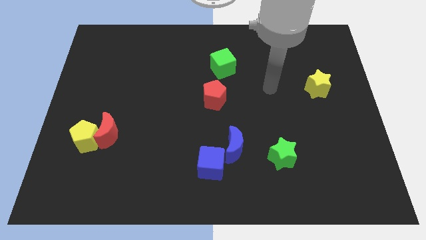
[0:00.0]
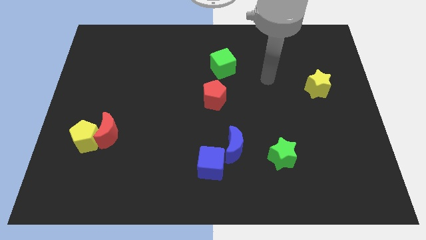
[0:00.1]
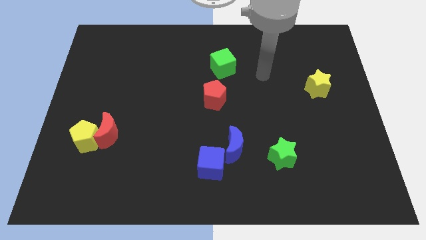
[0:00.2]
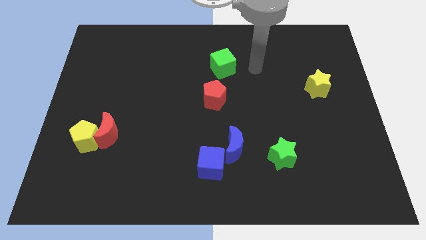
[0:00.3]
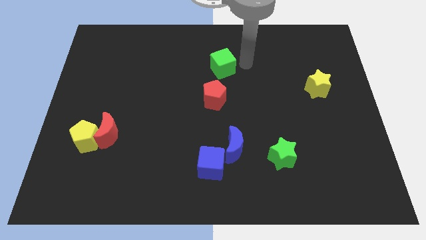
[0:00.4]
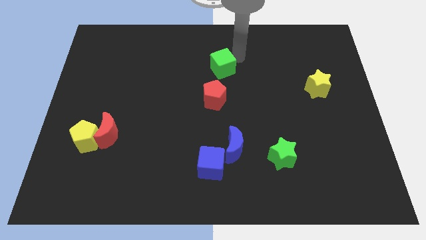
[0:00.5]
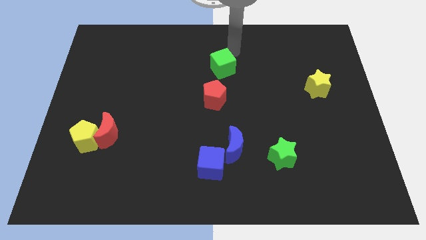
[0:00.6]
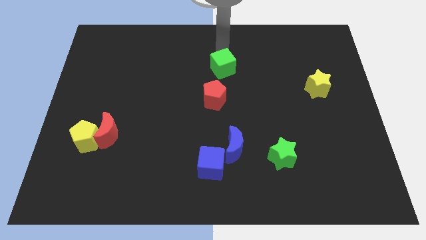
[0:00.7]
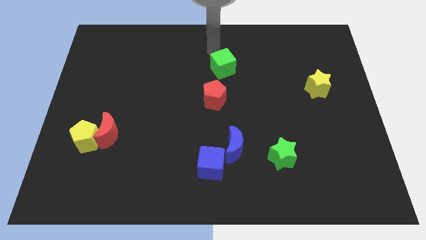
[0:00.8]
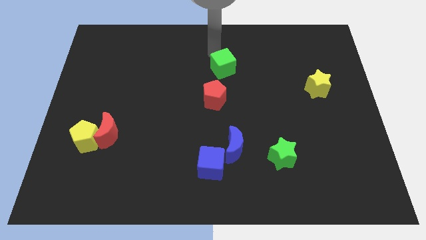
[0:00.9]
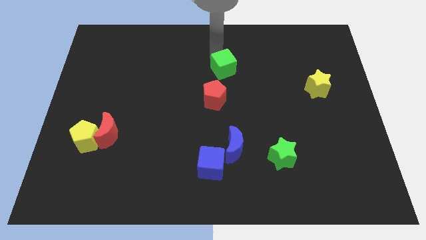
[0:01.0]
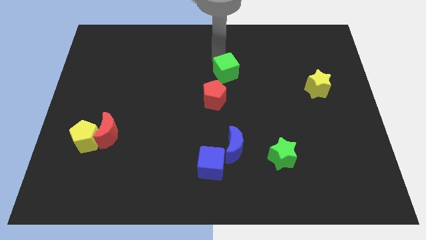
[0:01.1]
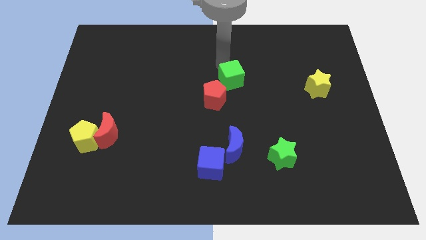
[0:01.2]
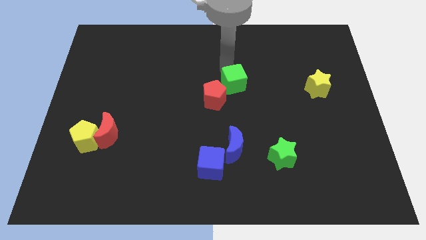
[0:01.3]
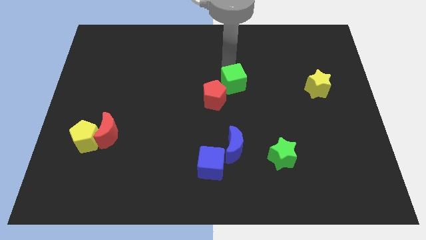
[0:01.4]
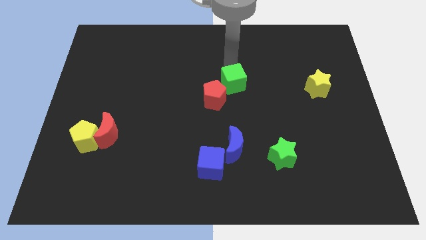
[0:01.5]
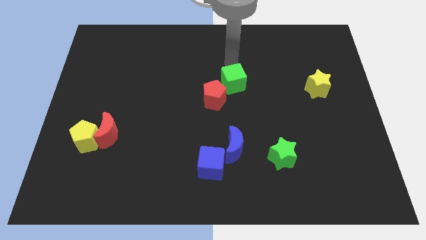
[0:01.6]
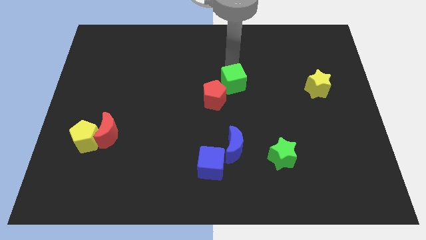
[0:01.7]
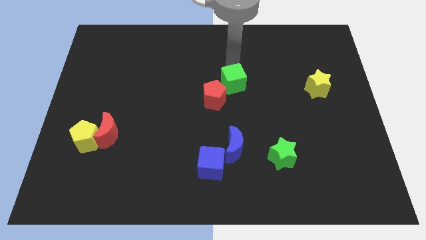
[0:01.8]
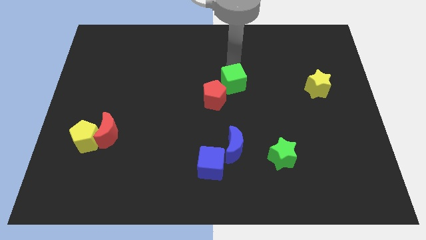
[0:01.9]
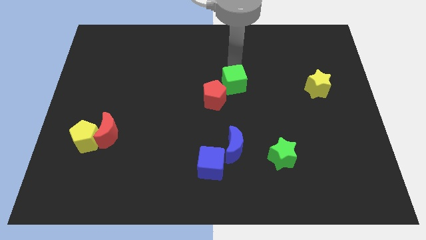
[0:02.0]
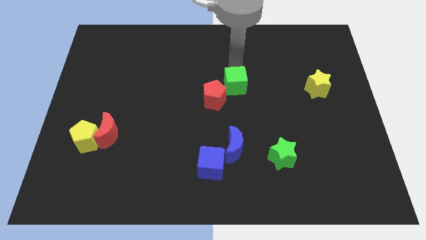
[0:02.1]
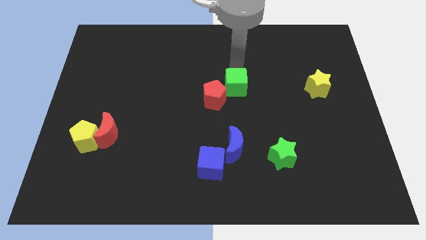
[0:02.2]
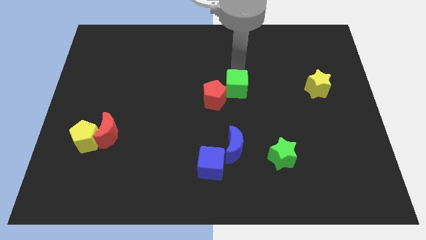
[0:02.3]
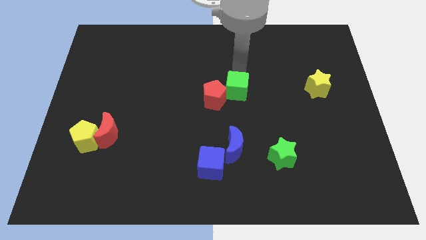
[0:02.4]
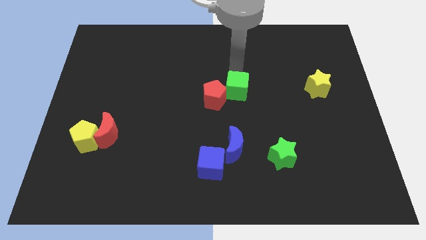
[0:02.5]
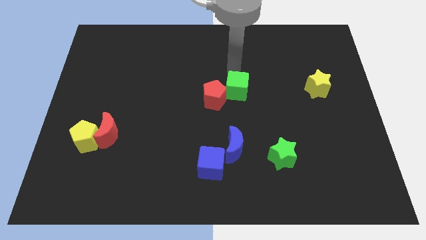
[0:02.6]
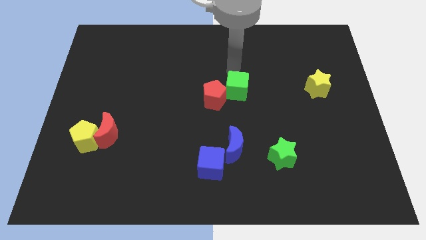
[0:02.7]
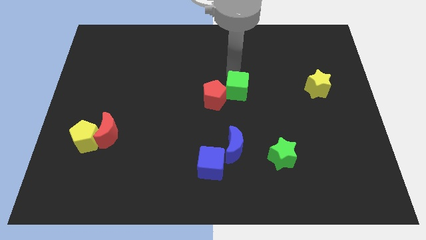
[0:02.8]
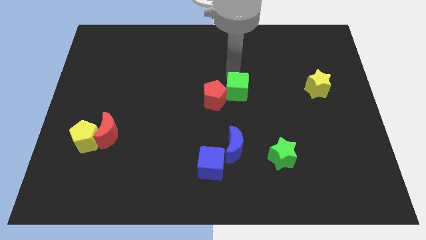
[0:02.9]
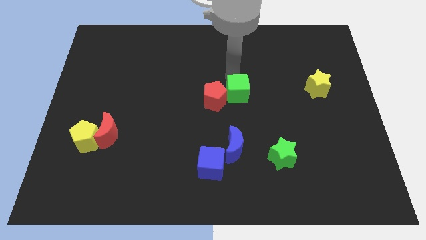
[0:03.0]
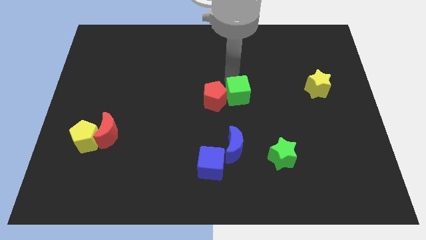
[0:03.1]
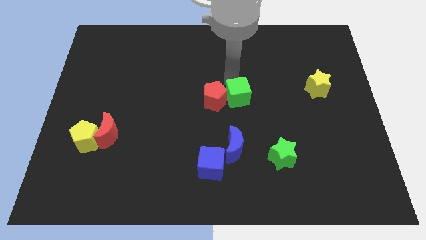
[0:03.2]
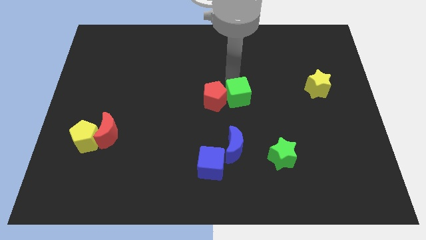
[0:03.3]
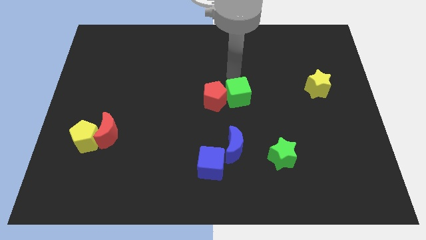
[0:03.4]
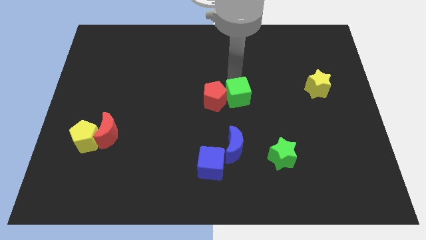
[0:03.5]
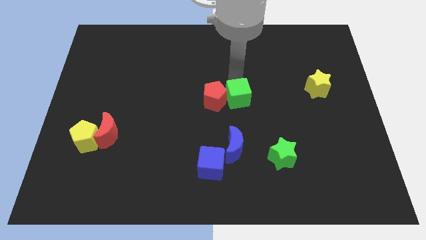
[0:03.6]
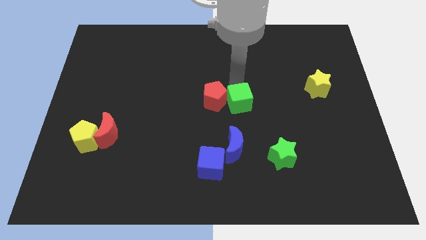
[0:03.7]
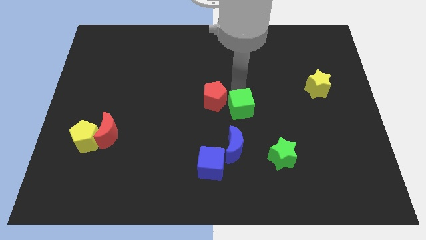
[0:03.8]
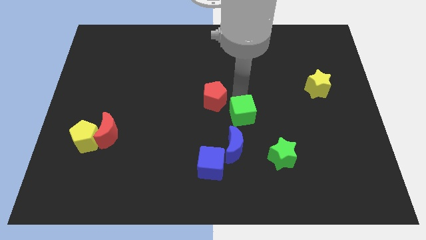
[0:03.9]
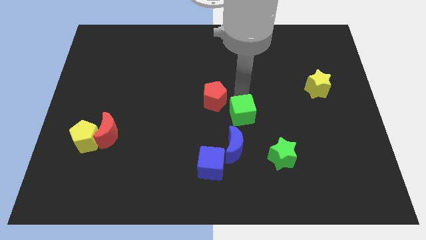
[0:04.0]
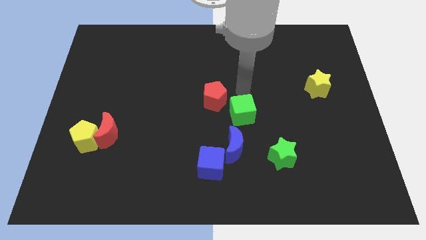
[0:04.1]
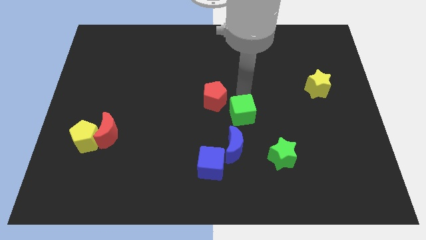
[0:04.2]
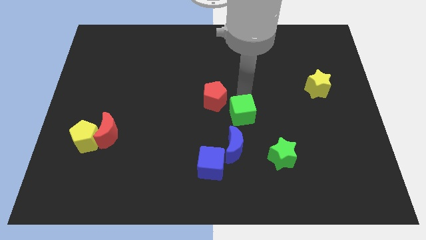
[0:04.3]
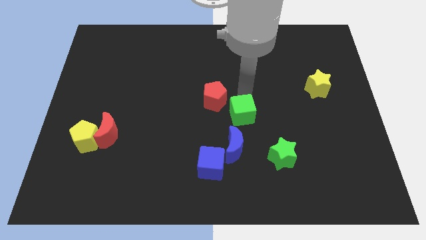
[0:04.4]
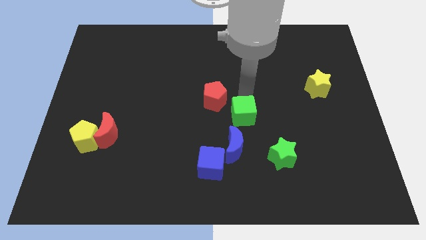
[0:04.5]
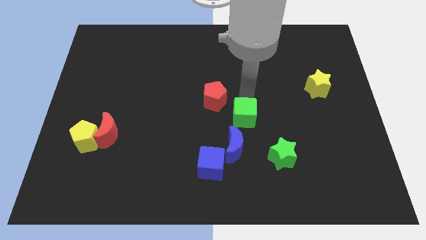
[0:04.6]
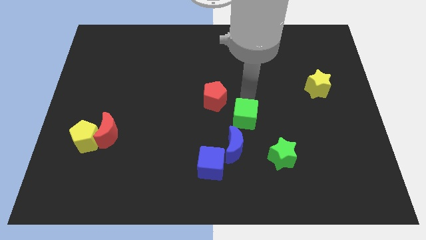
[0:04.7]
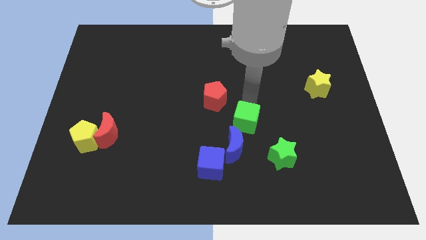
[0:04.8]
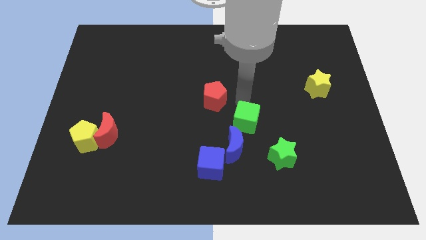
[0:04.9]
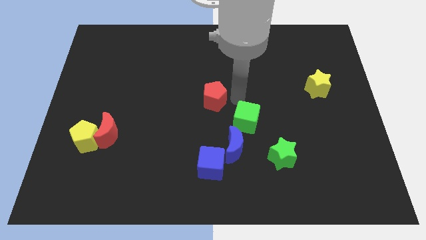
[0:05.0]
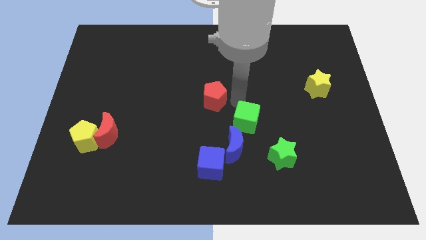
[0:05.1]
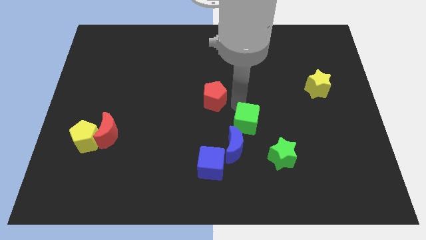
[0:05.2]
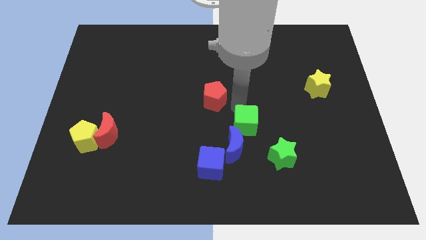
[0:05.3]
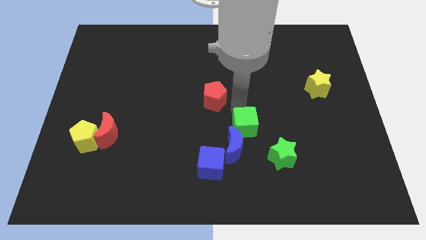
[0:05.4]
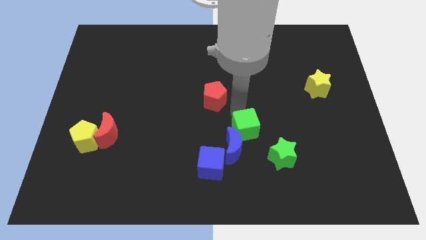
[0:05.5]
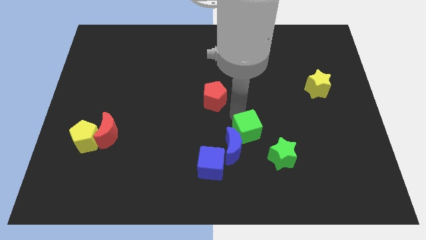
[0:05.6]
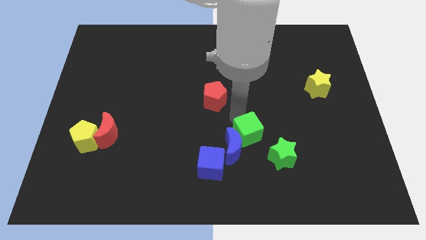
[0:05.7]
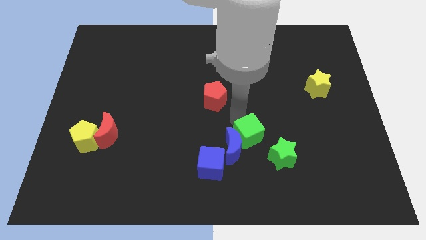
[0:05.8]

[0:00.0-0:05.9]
move the green cube downwards

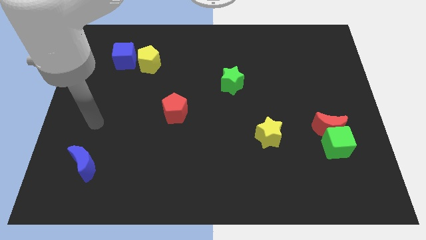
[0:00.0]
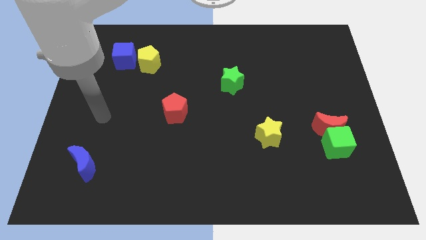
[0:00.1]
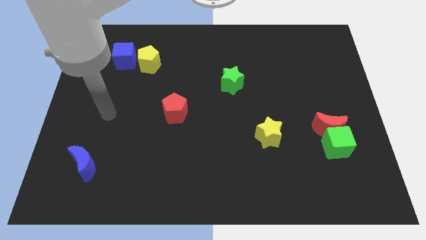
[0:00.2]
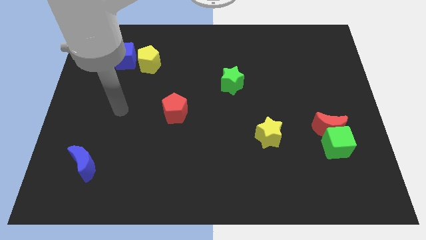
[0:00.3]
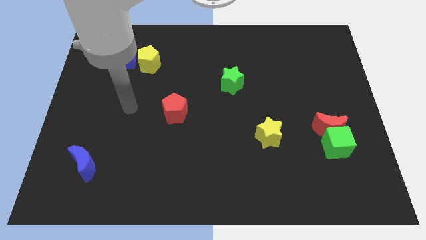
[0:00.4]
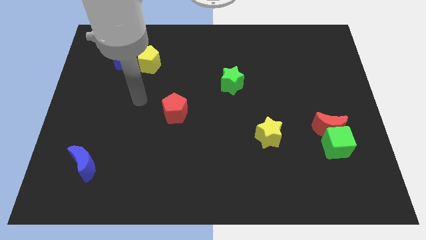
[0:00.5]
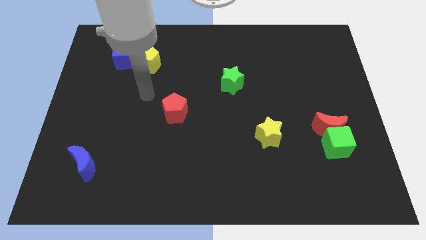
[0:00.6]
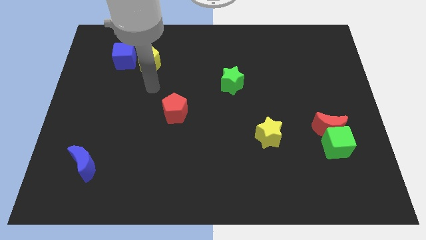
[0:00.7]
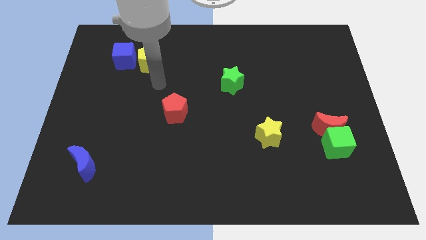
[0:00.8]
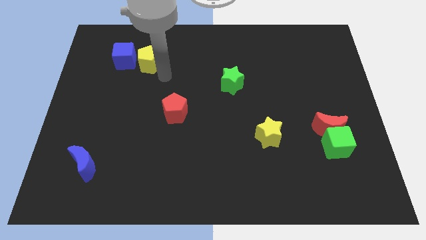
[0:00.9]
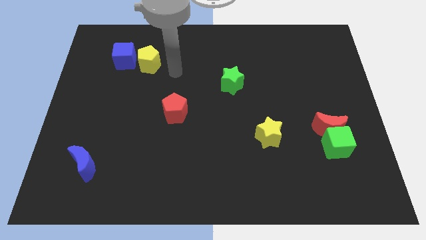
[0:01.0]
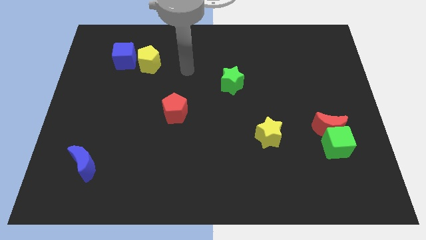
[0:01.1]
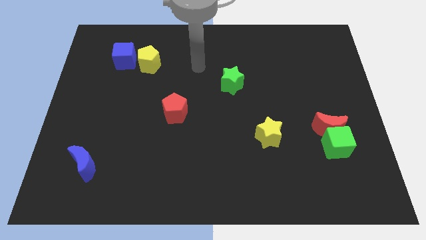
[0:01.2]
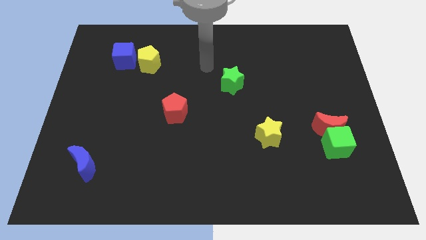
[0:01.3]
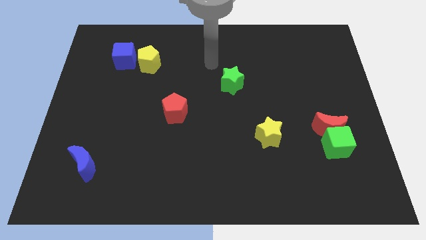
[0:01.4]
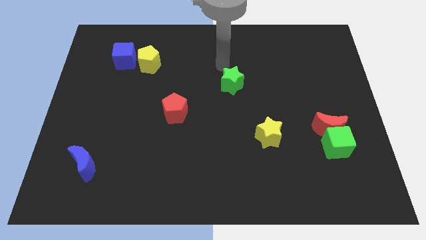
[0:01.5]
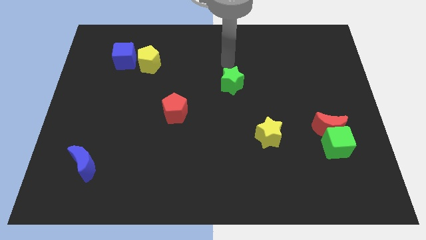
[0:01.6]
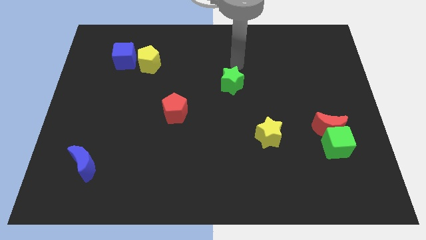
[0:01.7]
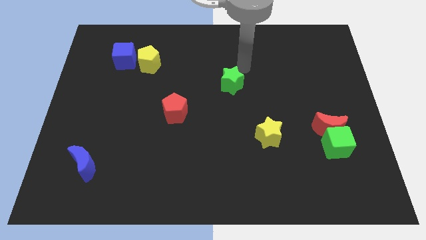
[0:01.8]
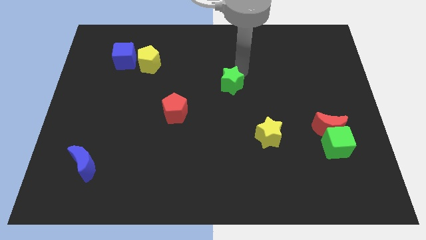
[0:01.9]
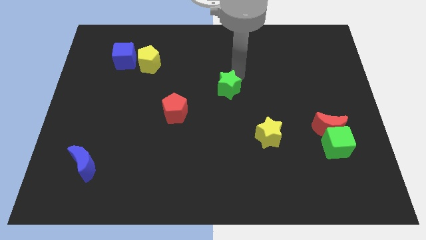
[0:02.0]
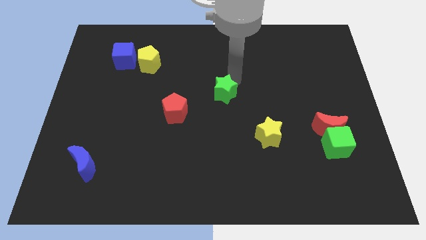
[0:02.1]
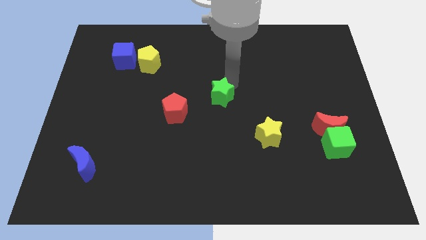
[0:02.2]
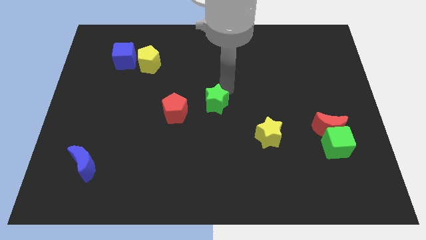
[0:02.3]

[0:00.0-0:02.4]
slide the green star a little down and to the left diagonally
